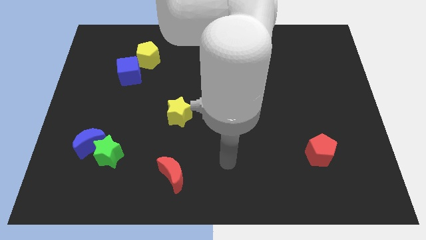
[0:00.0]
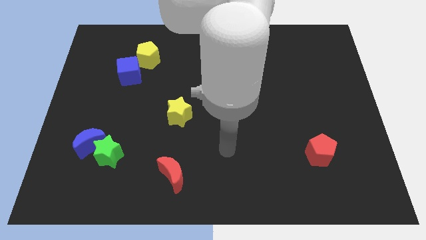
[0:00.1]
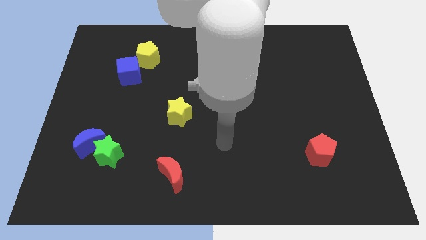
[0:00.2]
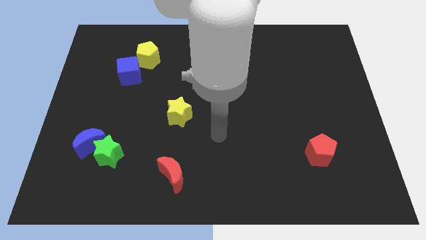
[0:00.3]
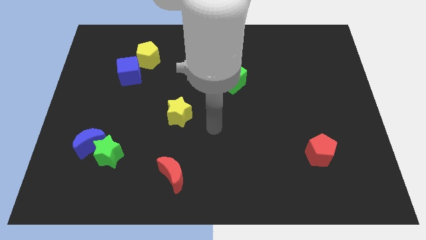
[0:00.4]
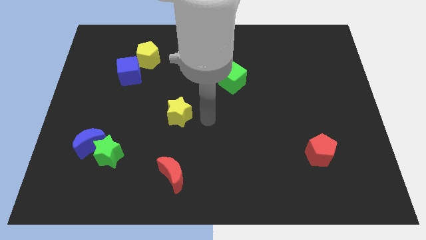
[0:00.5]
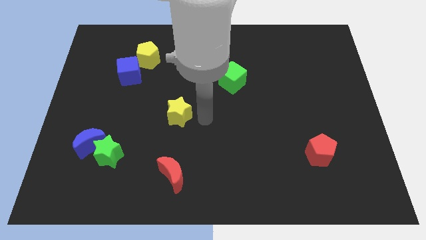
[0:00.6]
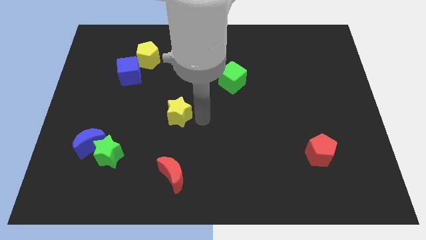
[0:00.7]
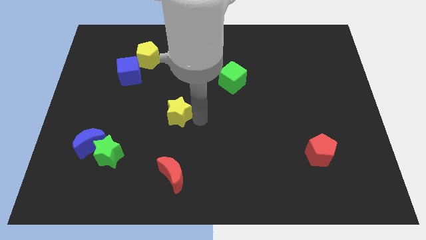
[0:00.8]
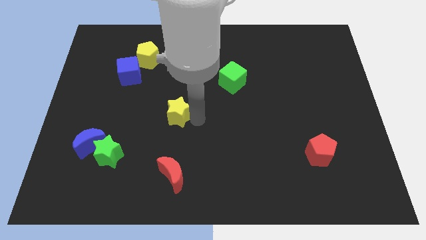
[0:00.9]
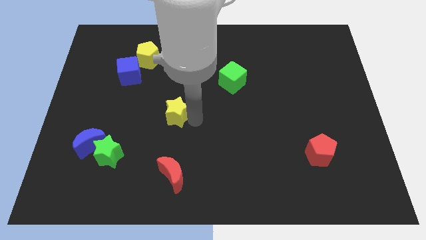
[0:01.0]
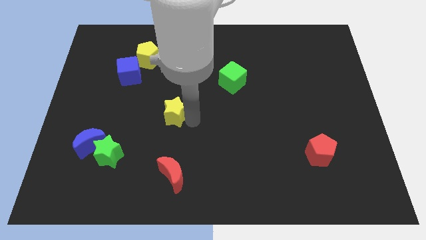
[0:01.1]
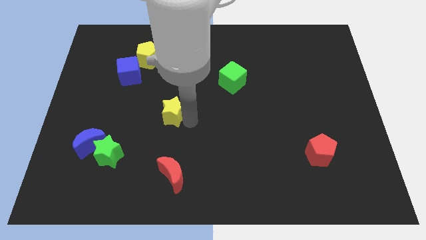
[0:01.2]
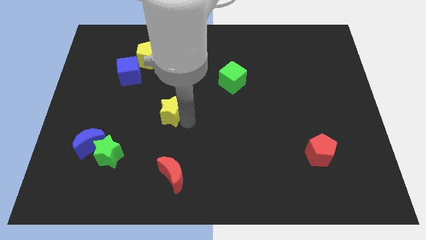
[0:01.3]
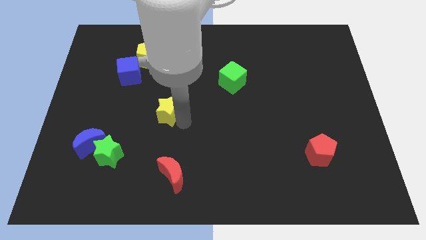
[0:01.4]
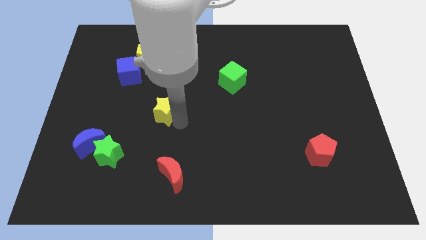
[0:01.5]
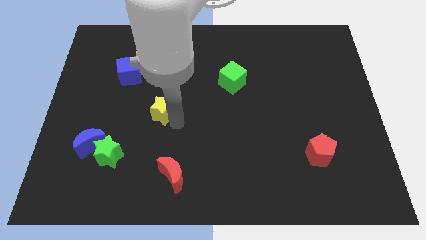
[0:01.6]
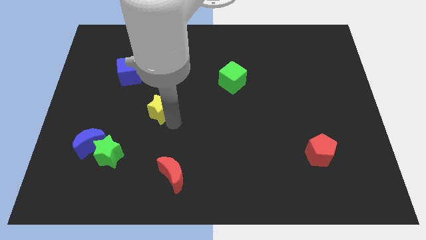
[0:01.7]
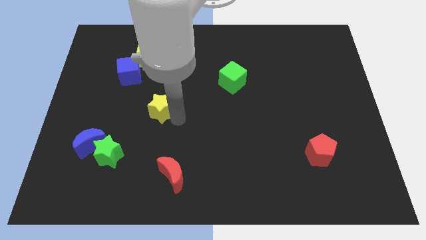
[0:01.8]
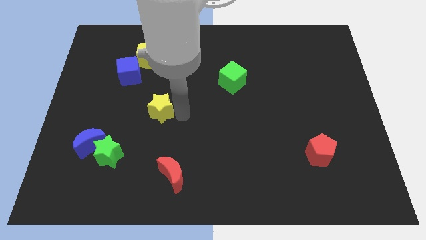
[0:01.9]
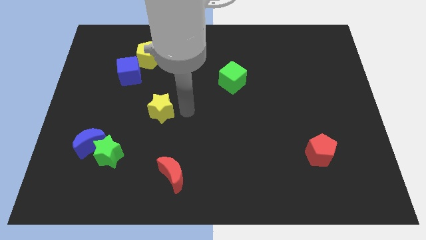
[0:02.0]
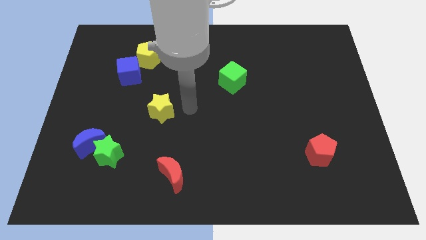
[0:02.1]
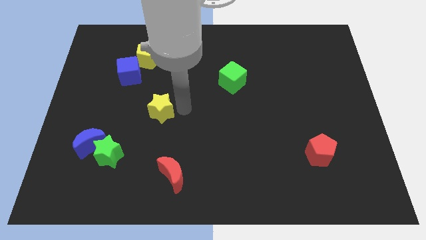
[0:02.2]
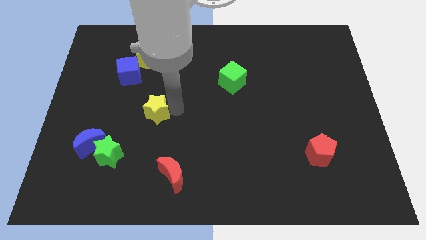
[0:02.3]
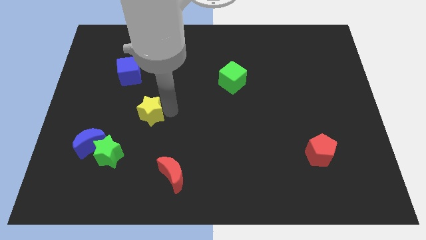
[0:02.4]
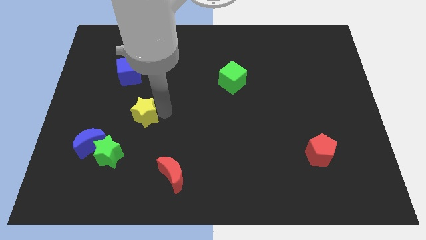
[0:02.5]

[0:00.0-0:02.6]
push the yellow star to the left slightly

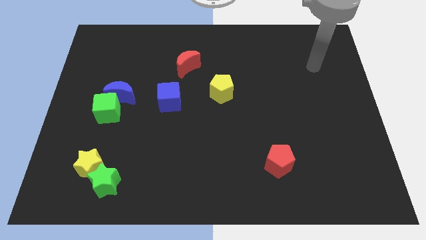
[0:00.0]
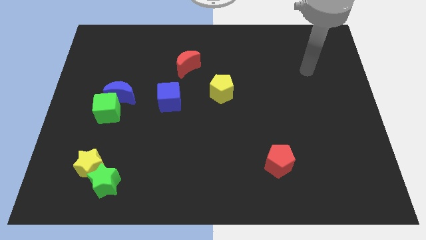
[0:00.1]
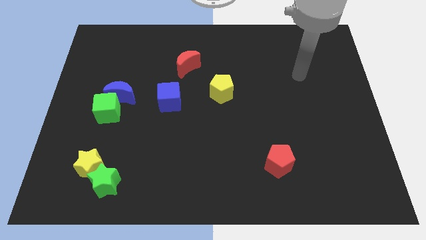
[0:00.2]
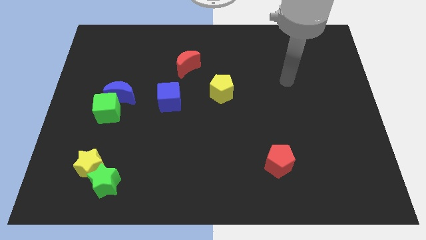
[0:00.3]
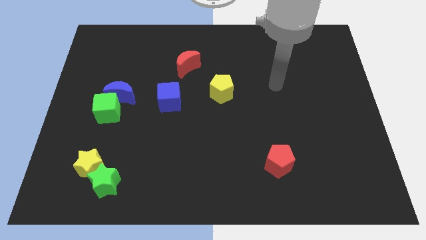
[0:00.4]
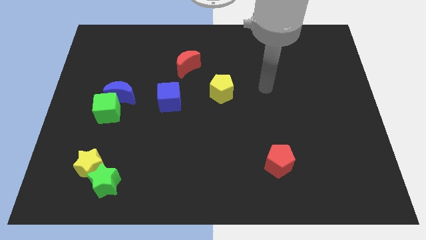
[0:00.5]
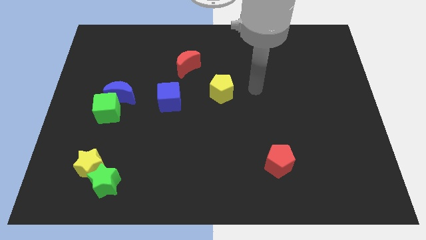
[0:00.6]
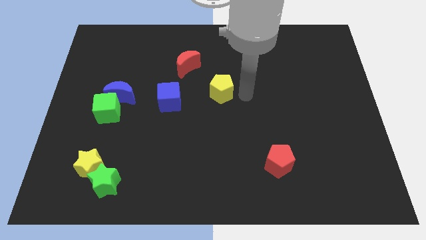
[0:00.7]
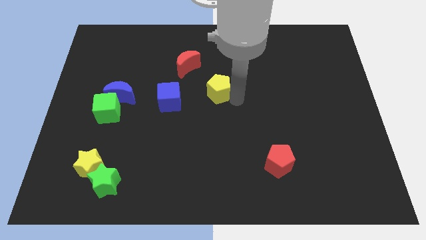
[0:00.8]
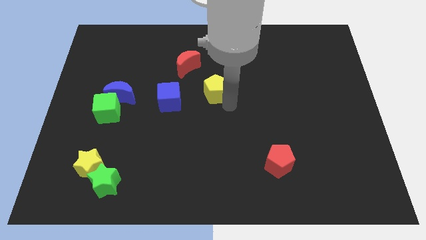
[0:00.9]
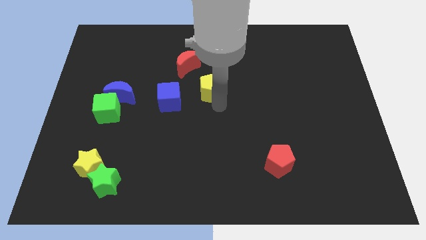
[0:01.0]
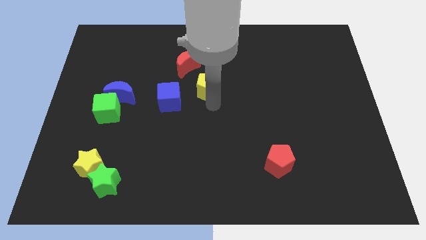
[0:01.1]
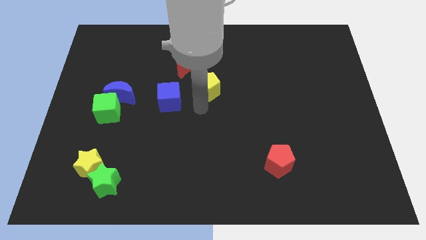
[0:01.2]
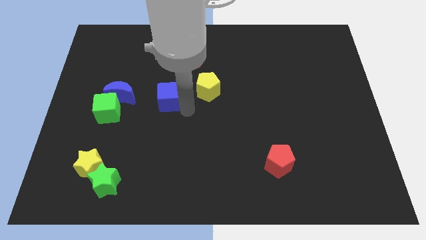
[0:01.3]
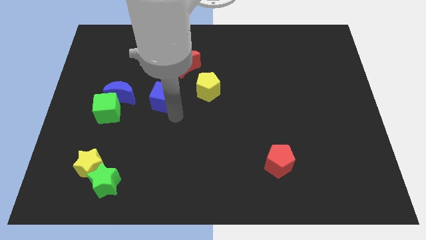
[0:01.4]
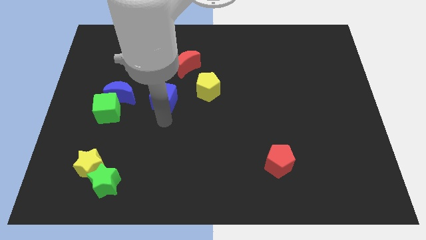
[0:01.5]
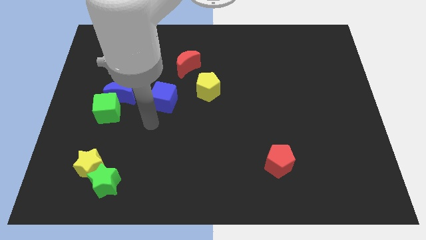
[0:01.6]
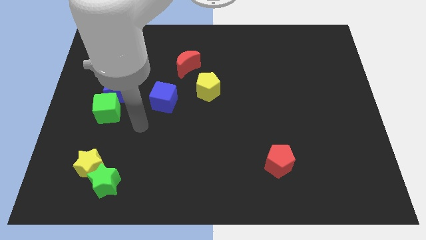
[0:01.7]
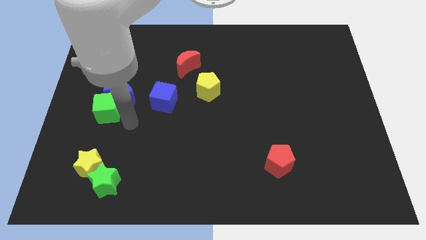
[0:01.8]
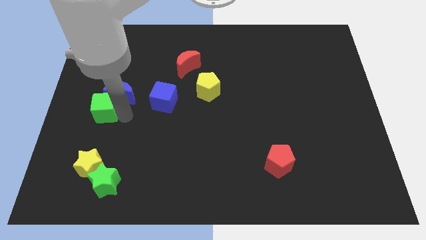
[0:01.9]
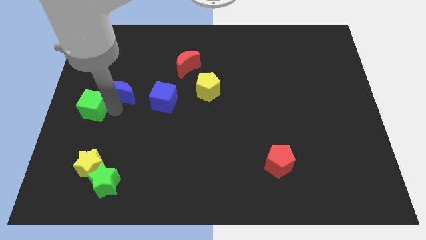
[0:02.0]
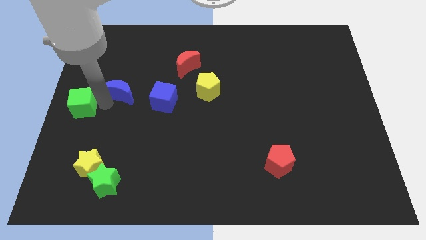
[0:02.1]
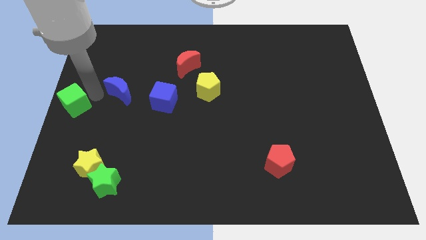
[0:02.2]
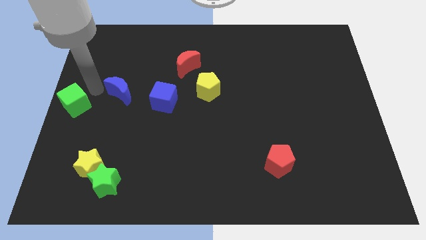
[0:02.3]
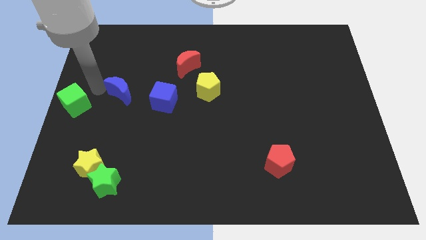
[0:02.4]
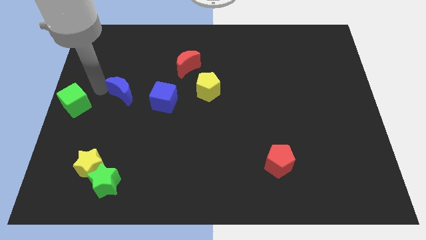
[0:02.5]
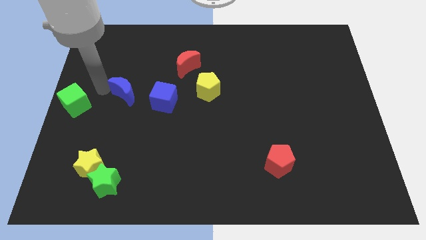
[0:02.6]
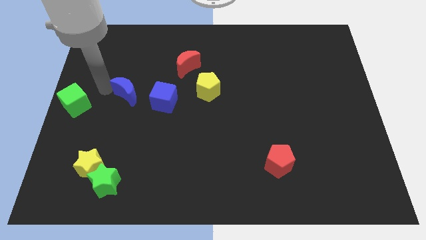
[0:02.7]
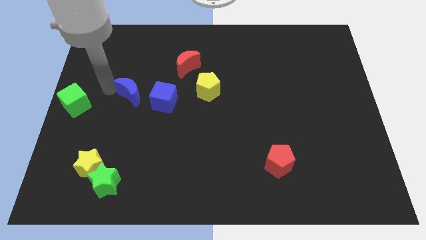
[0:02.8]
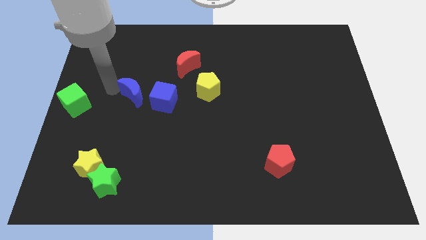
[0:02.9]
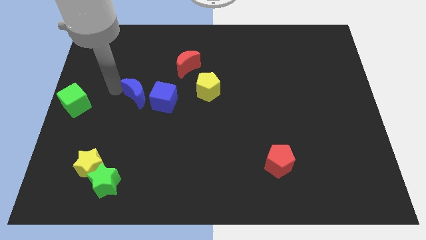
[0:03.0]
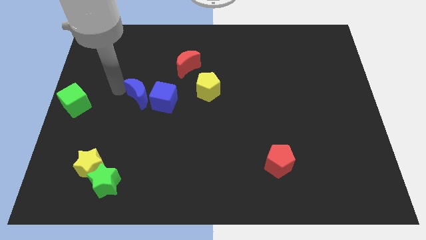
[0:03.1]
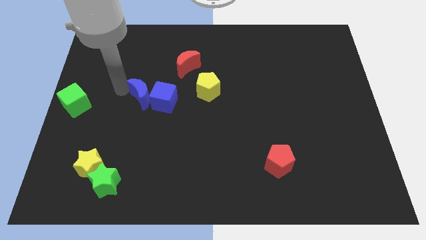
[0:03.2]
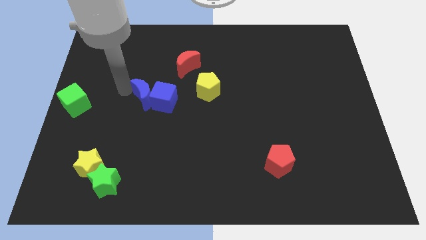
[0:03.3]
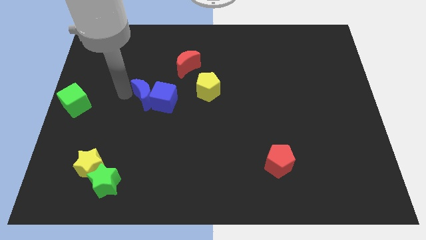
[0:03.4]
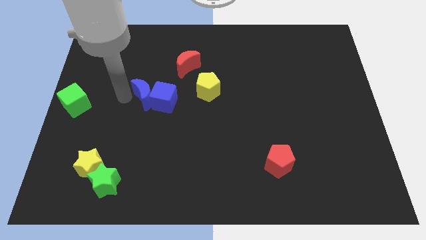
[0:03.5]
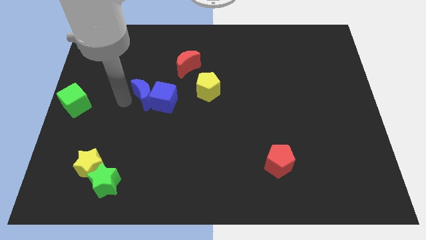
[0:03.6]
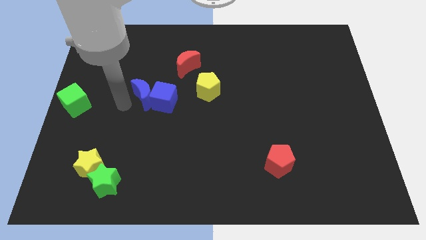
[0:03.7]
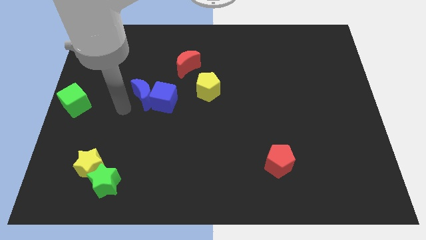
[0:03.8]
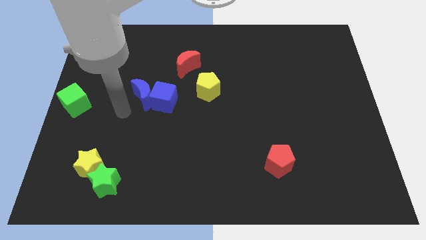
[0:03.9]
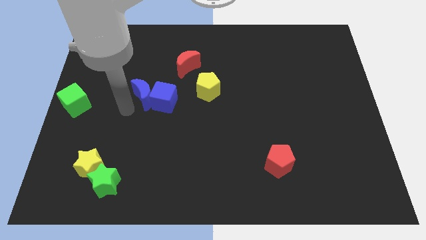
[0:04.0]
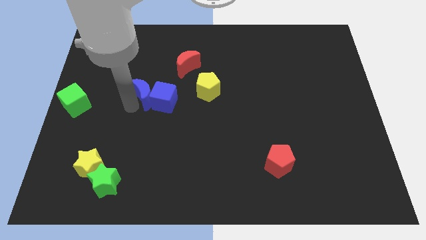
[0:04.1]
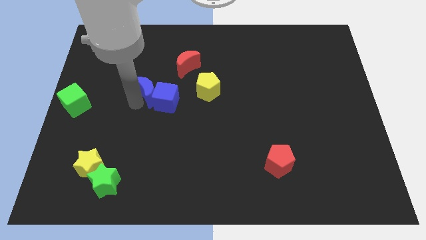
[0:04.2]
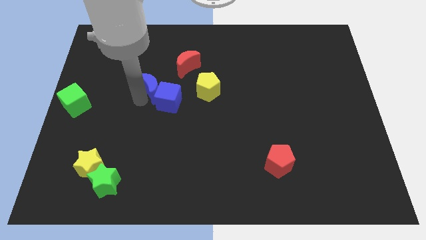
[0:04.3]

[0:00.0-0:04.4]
slide the blue moon a little bit right

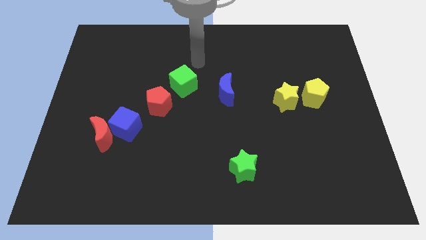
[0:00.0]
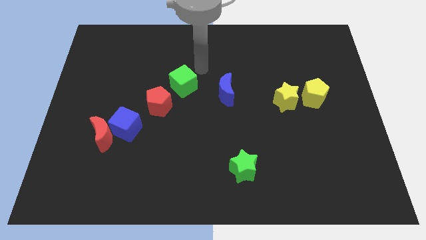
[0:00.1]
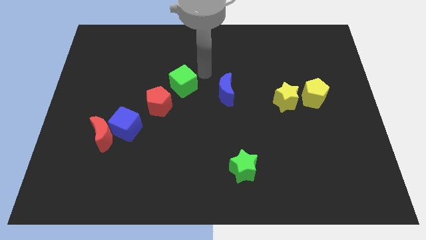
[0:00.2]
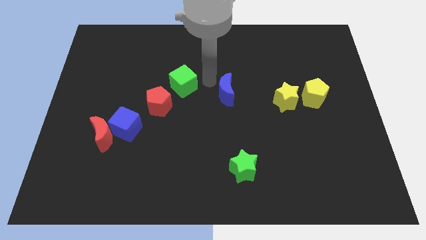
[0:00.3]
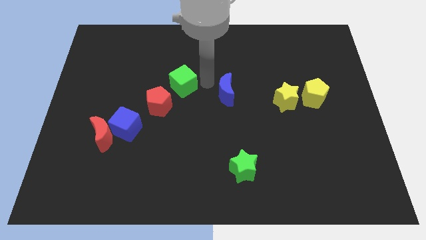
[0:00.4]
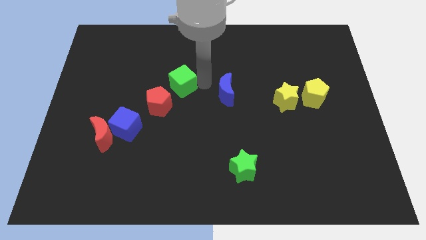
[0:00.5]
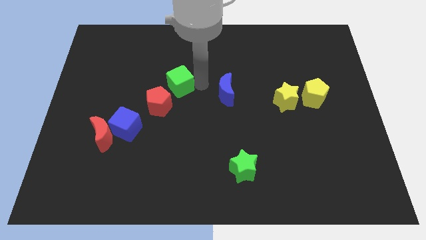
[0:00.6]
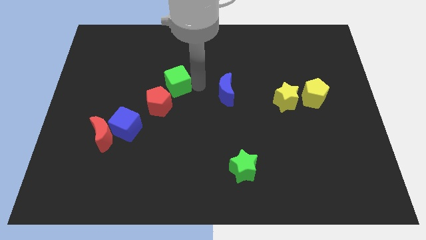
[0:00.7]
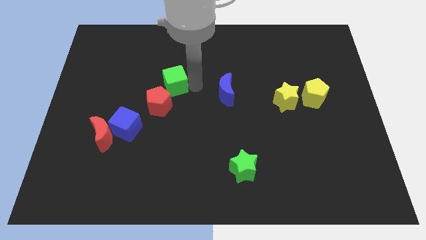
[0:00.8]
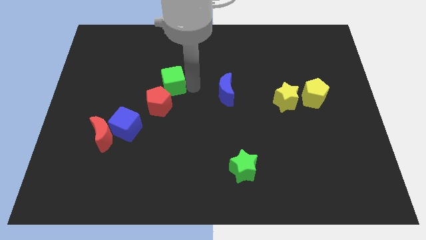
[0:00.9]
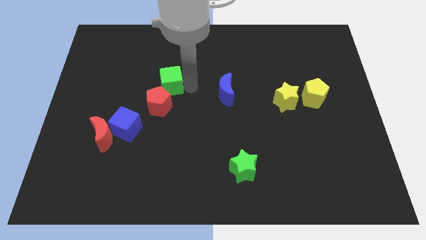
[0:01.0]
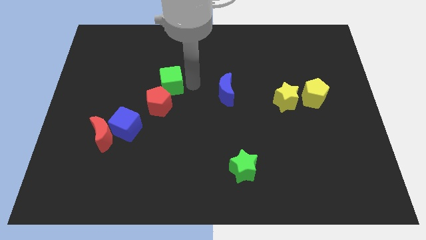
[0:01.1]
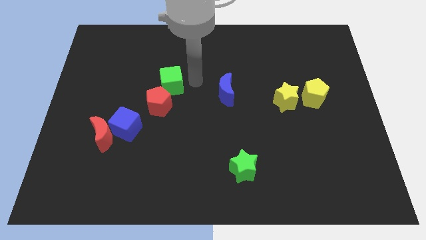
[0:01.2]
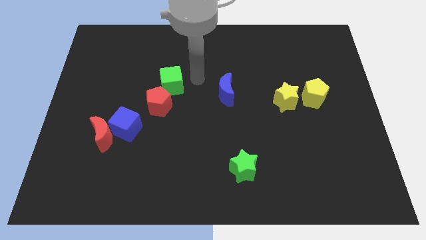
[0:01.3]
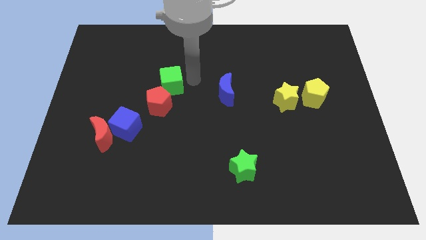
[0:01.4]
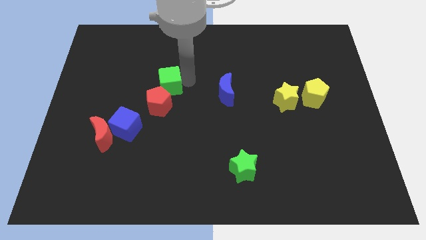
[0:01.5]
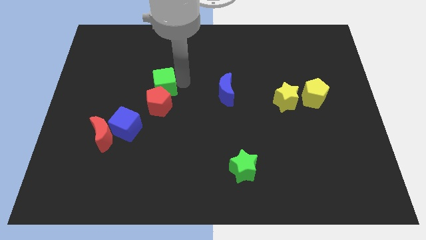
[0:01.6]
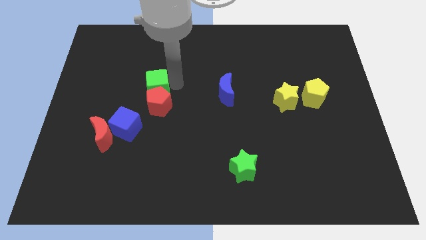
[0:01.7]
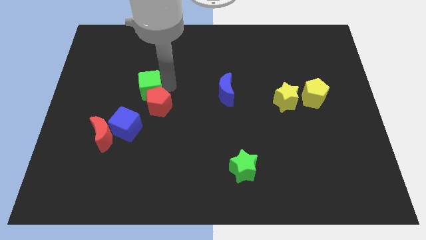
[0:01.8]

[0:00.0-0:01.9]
slide the green cube to the left somewhat
